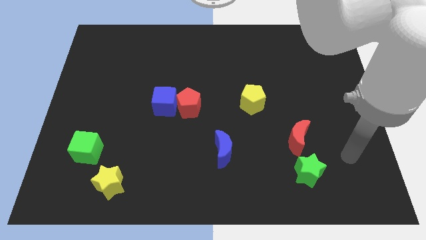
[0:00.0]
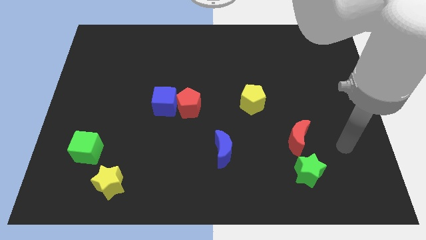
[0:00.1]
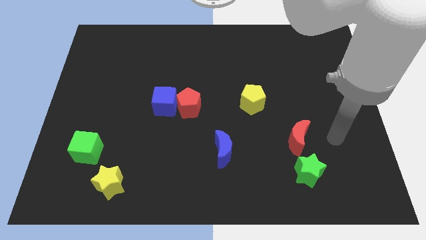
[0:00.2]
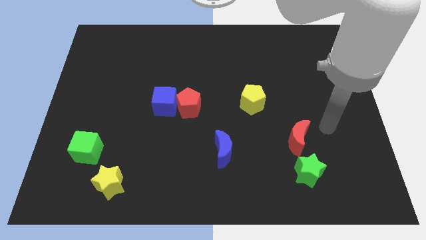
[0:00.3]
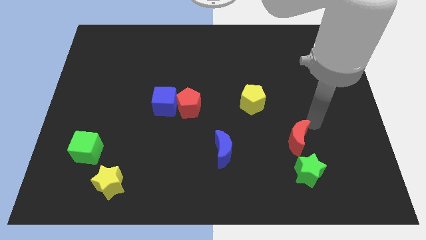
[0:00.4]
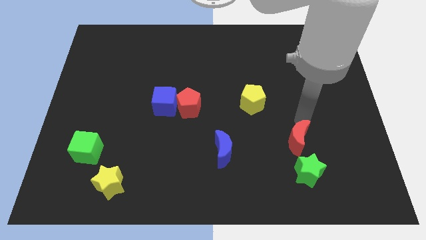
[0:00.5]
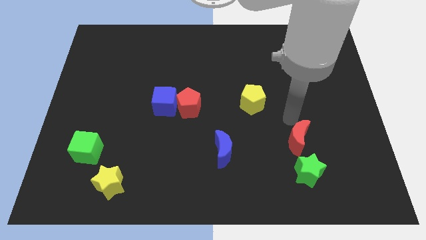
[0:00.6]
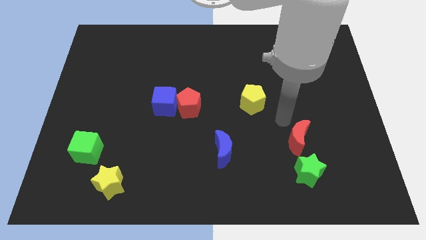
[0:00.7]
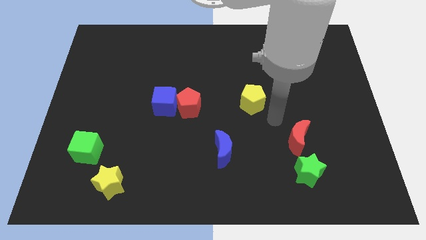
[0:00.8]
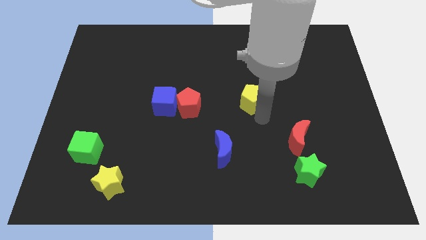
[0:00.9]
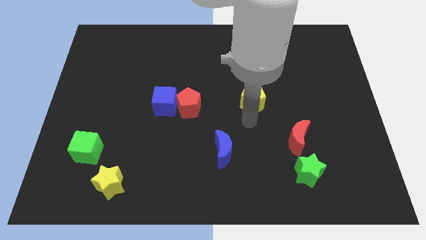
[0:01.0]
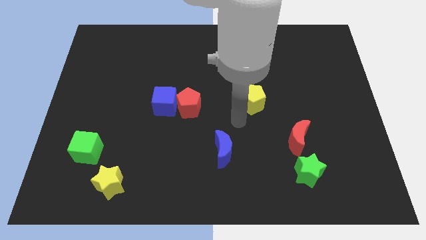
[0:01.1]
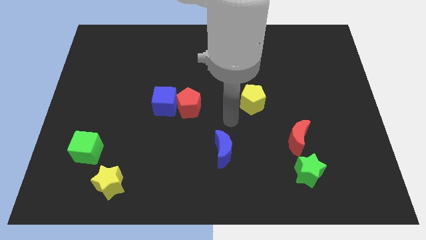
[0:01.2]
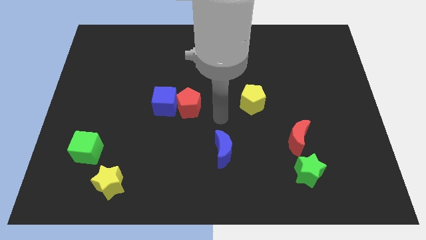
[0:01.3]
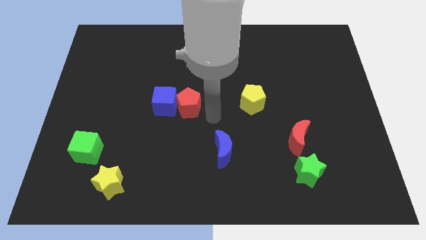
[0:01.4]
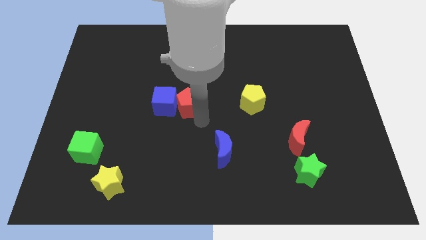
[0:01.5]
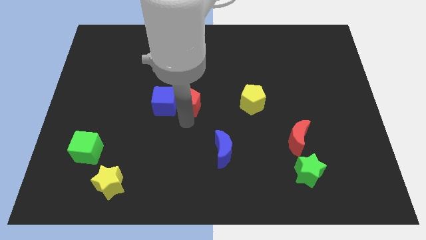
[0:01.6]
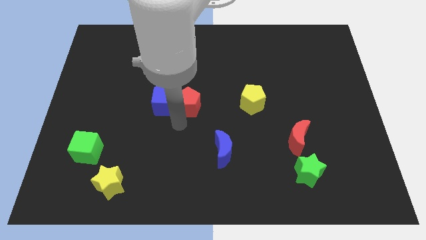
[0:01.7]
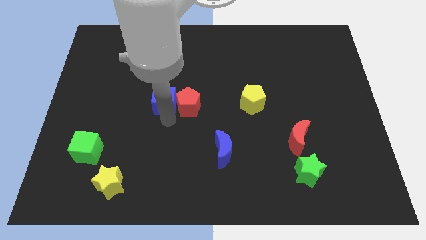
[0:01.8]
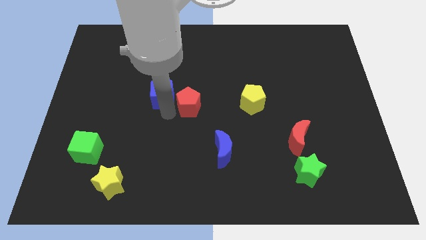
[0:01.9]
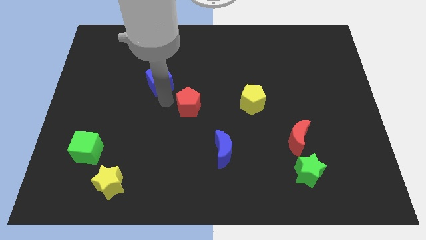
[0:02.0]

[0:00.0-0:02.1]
pull the red pentagon apart from the blue cube

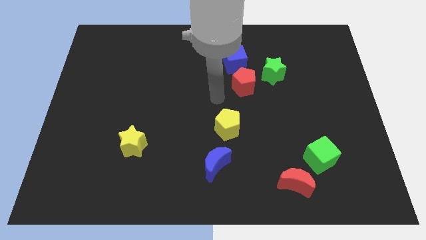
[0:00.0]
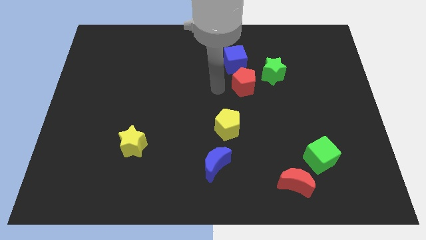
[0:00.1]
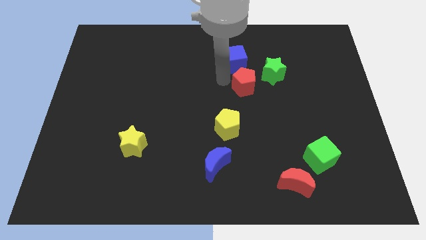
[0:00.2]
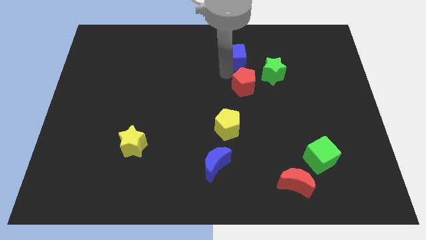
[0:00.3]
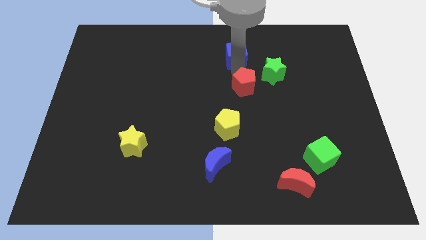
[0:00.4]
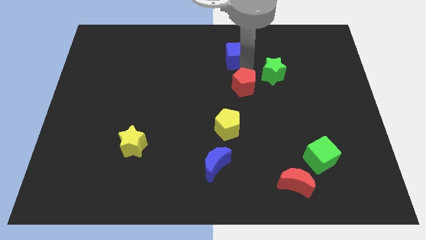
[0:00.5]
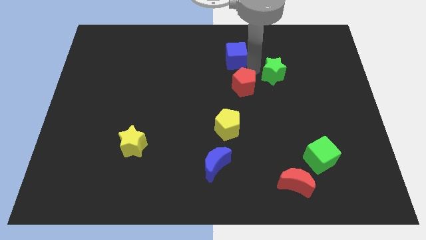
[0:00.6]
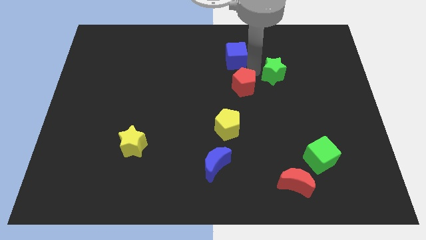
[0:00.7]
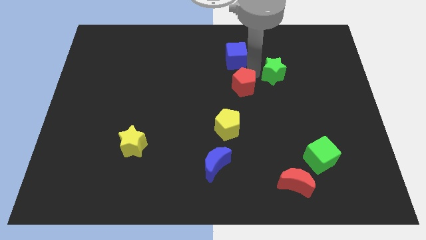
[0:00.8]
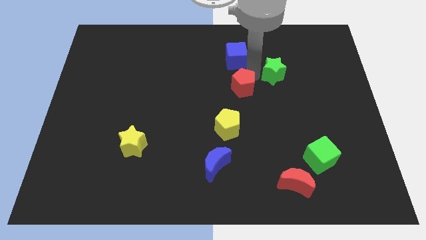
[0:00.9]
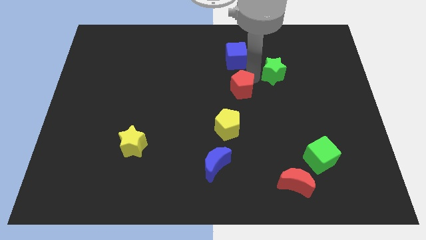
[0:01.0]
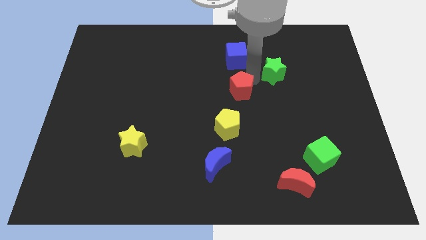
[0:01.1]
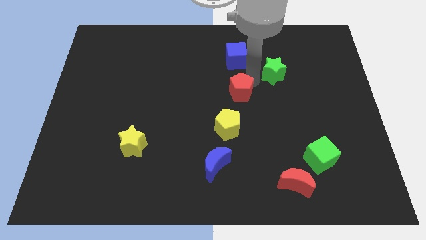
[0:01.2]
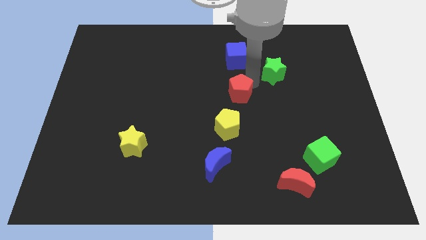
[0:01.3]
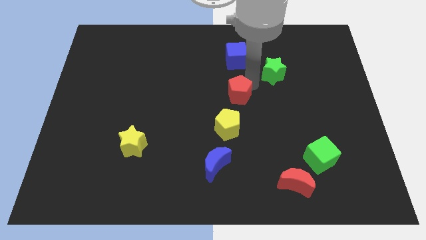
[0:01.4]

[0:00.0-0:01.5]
pull the red pentagon apart from the blue cube and green star

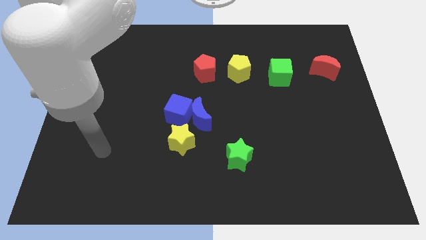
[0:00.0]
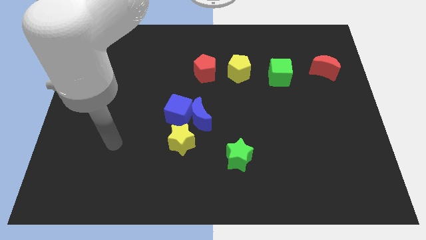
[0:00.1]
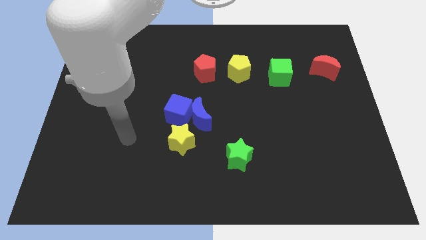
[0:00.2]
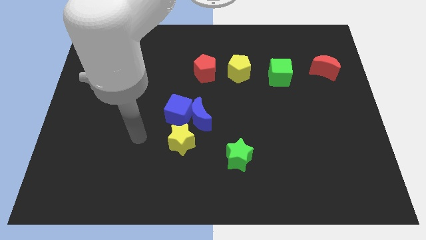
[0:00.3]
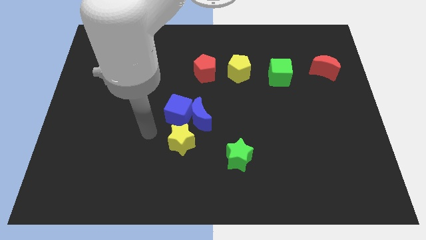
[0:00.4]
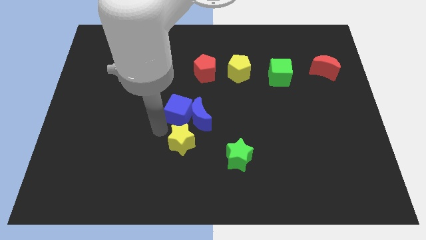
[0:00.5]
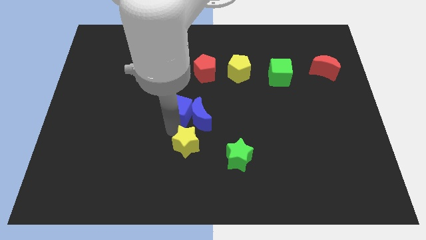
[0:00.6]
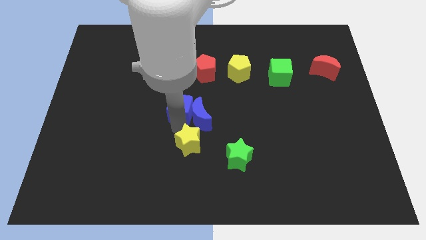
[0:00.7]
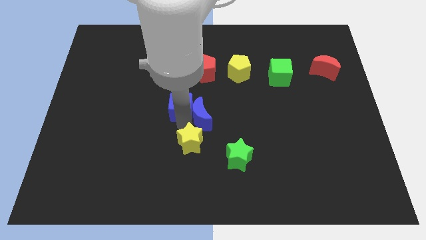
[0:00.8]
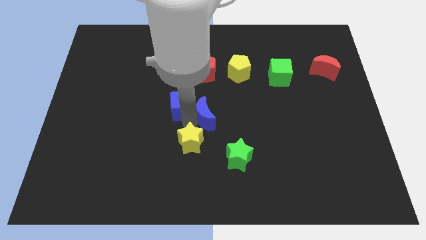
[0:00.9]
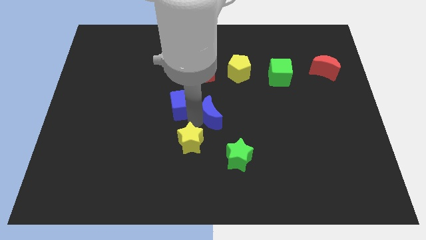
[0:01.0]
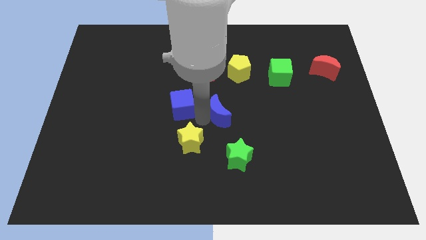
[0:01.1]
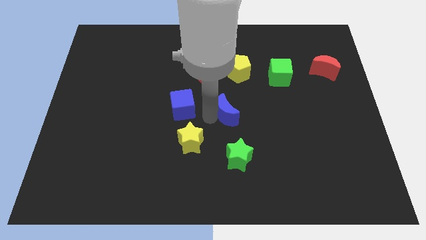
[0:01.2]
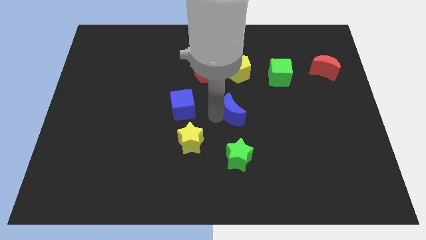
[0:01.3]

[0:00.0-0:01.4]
move the blue moon away from the blue cube and yellow star

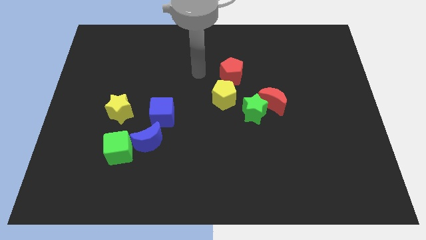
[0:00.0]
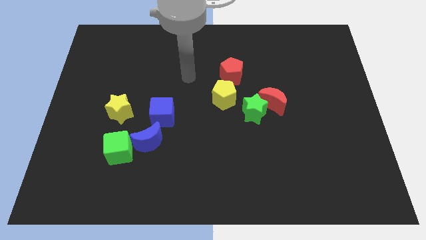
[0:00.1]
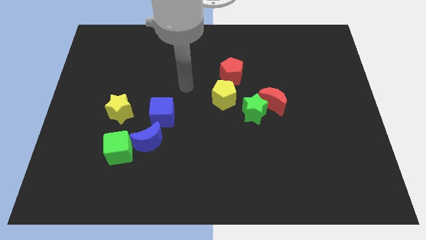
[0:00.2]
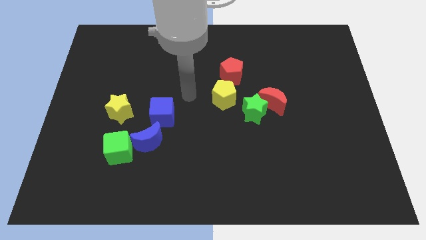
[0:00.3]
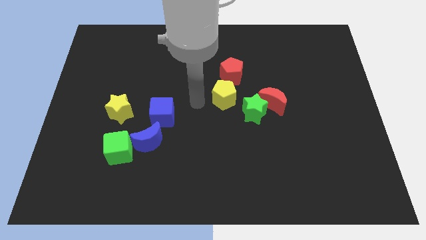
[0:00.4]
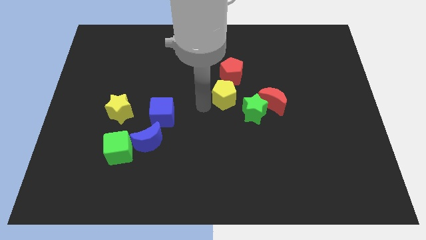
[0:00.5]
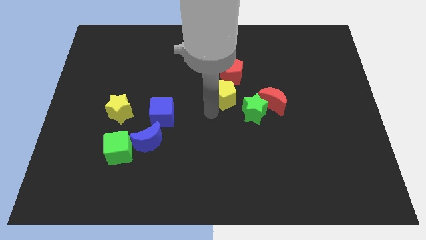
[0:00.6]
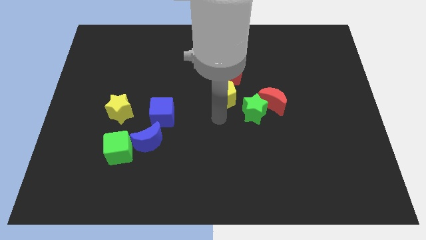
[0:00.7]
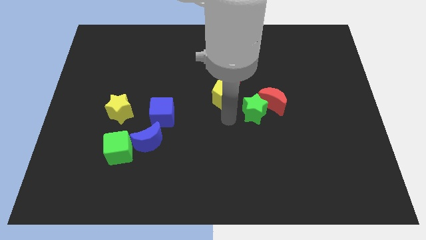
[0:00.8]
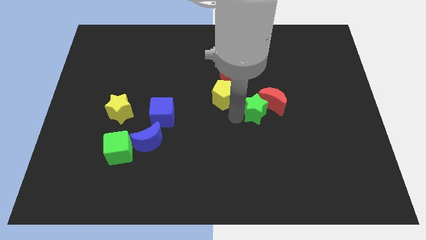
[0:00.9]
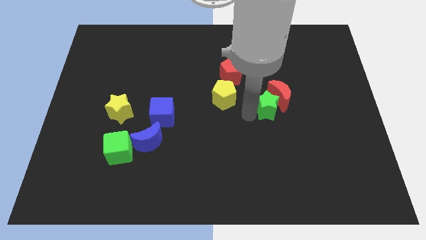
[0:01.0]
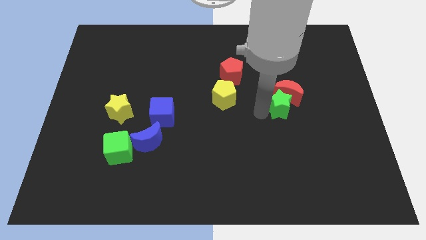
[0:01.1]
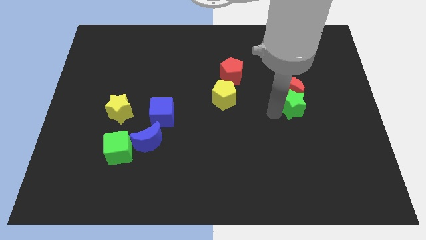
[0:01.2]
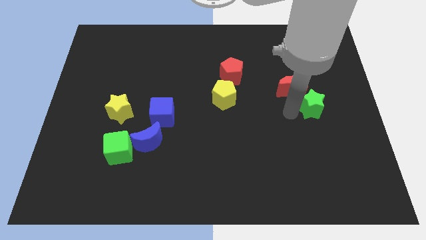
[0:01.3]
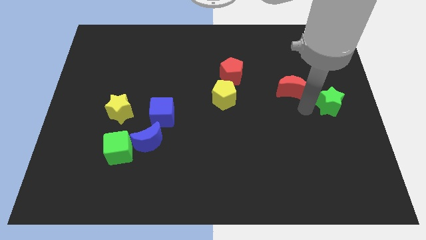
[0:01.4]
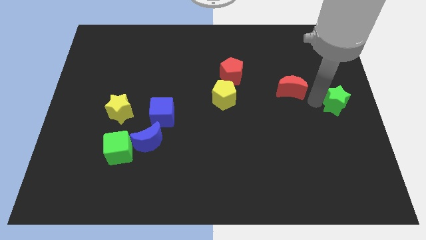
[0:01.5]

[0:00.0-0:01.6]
separate the red moon from the green star

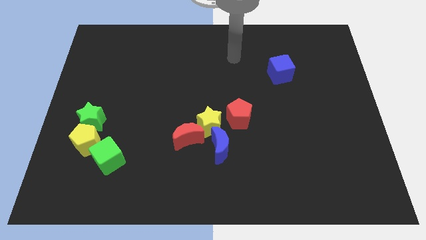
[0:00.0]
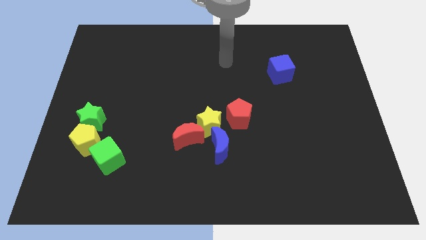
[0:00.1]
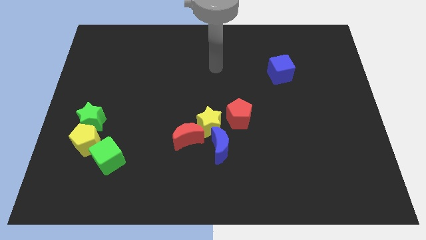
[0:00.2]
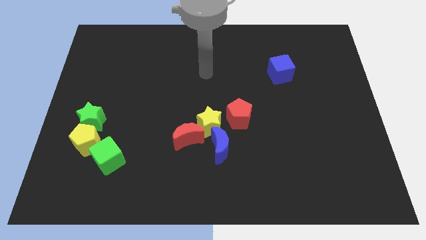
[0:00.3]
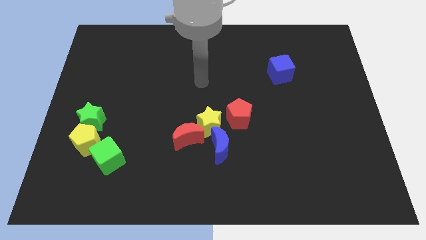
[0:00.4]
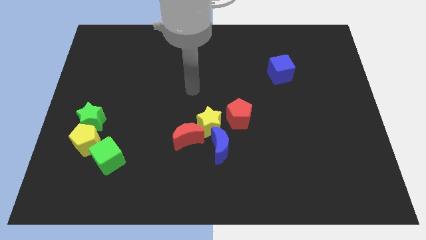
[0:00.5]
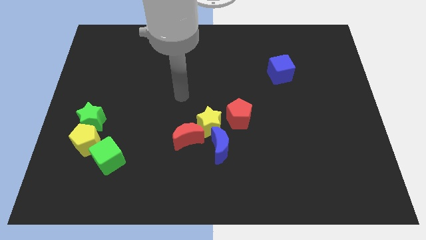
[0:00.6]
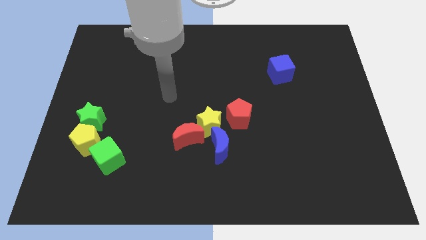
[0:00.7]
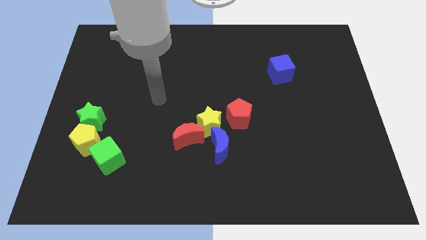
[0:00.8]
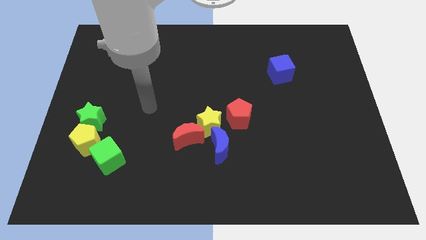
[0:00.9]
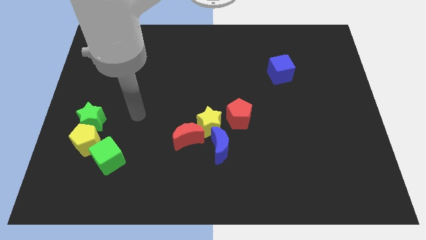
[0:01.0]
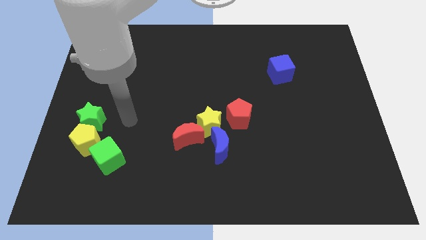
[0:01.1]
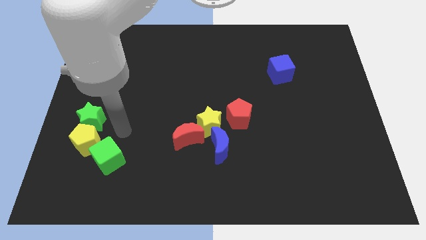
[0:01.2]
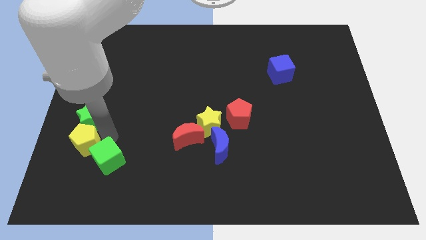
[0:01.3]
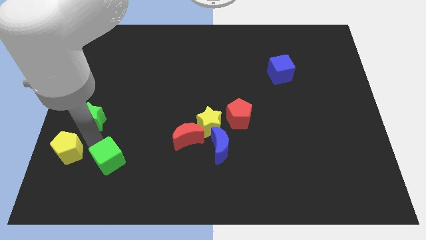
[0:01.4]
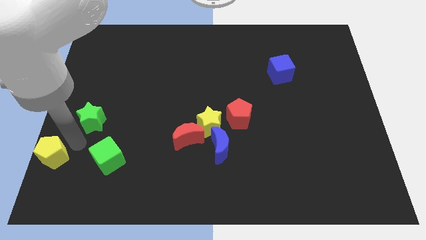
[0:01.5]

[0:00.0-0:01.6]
pull the green star apart from the yellow pentagon

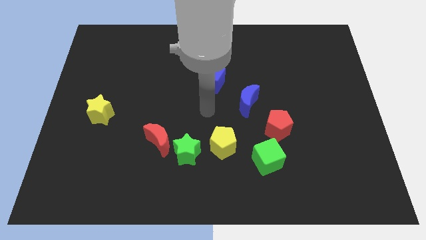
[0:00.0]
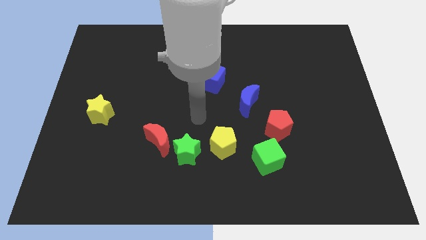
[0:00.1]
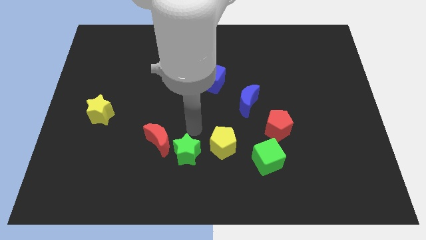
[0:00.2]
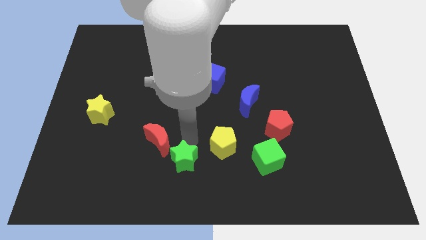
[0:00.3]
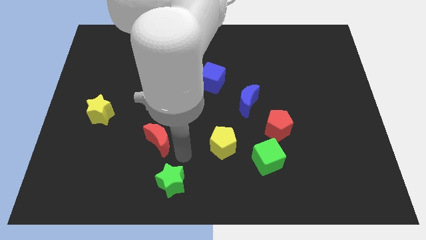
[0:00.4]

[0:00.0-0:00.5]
move the red moon away from the green star

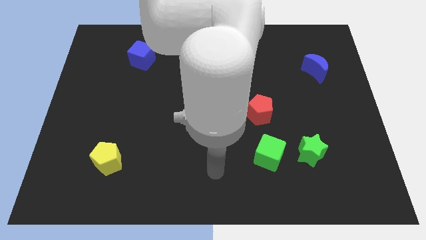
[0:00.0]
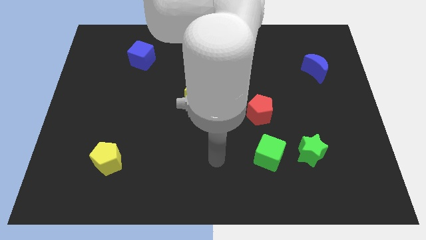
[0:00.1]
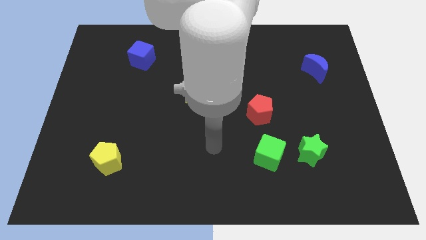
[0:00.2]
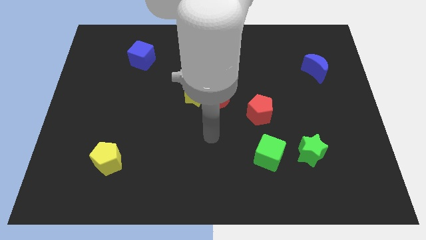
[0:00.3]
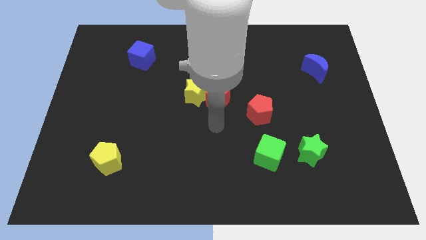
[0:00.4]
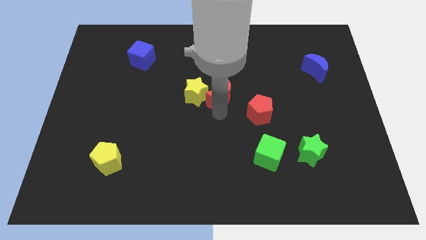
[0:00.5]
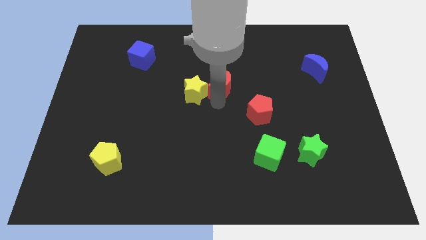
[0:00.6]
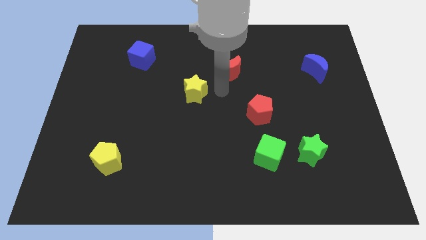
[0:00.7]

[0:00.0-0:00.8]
separate the yellow star from the red moon
